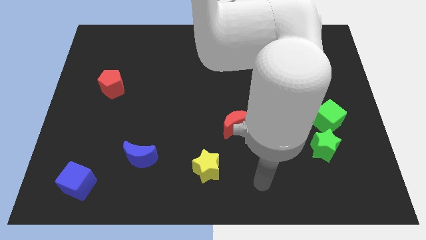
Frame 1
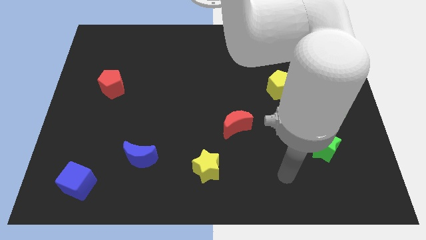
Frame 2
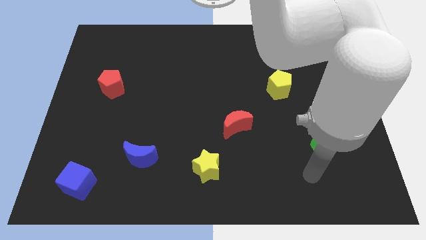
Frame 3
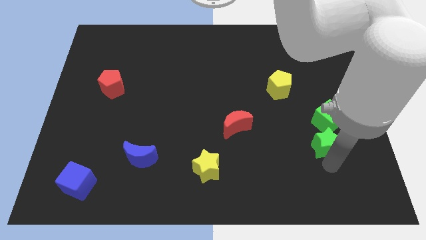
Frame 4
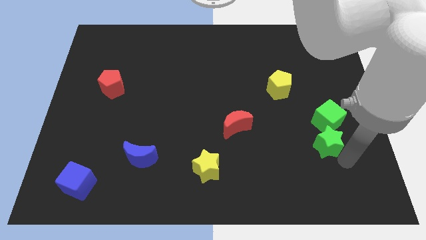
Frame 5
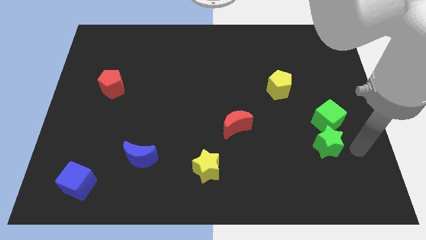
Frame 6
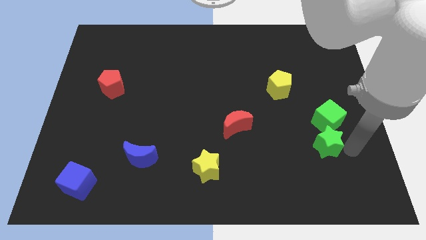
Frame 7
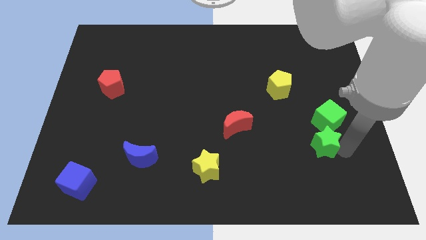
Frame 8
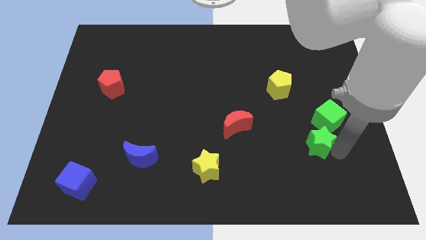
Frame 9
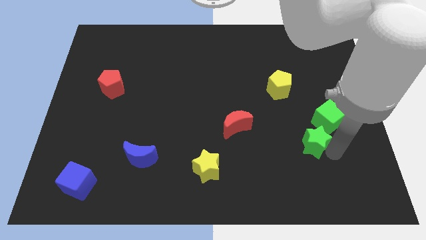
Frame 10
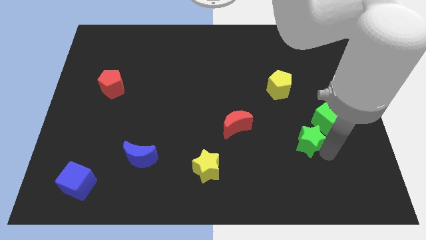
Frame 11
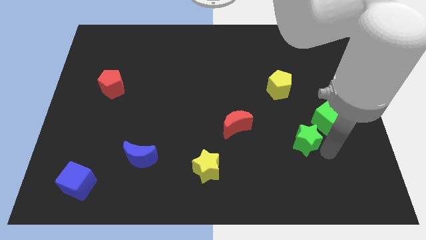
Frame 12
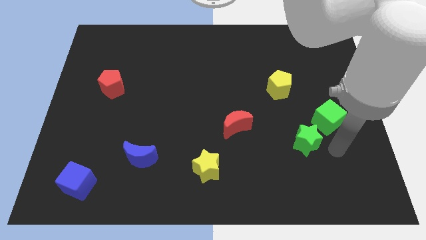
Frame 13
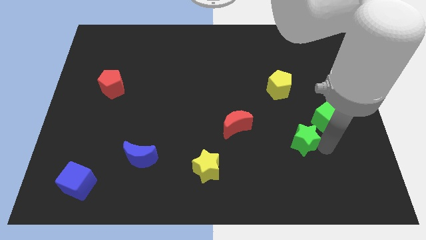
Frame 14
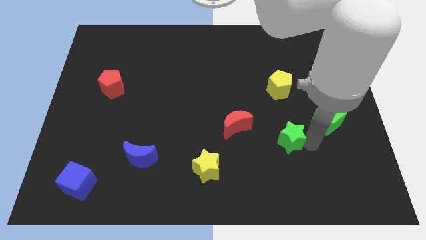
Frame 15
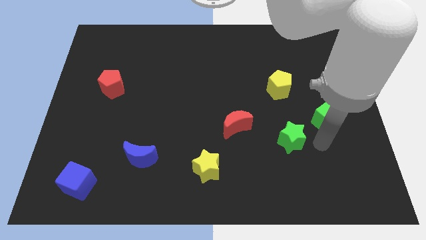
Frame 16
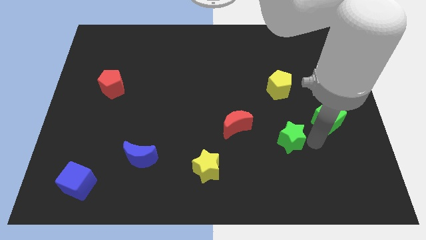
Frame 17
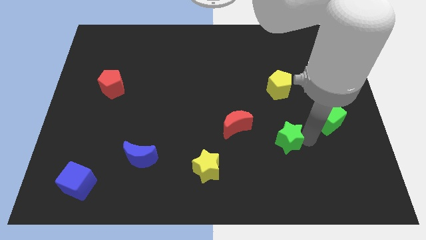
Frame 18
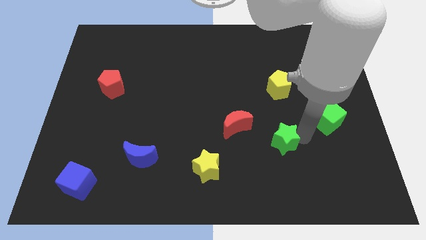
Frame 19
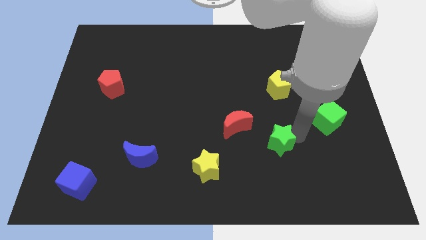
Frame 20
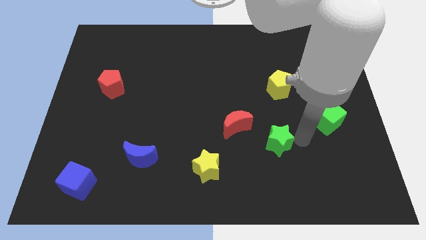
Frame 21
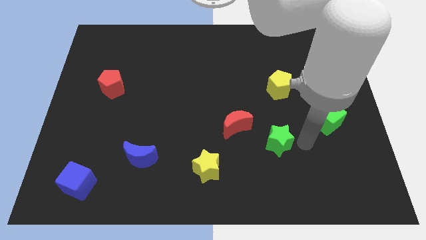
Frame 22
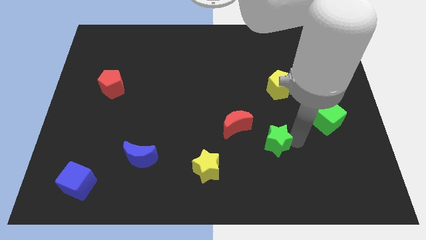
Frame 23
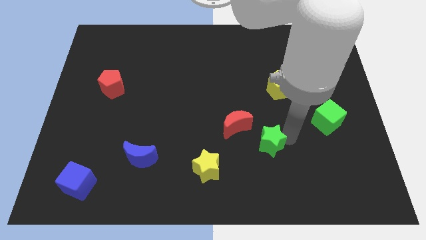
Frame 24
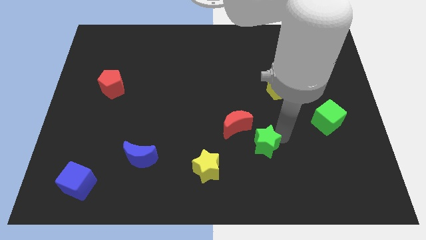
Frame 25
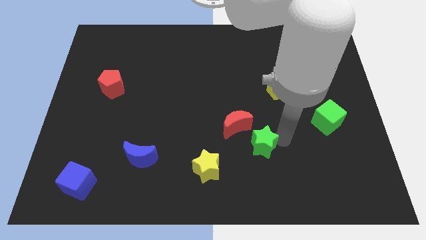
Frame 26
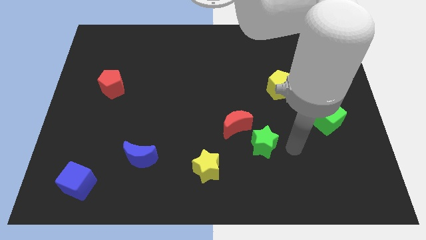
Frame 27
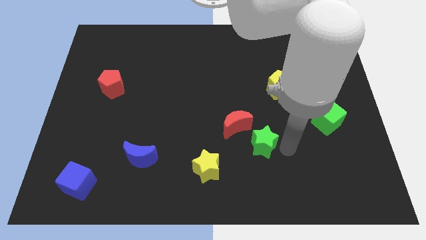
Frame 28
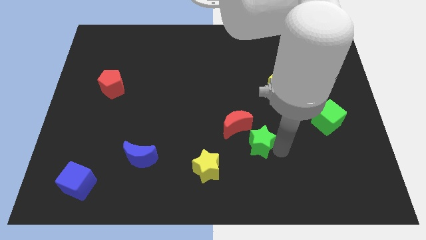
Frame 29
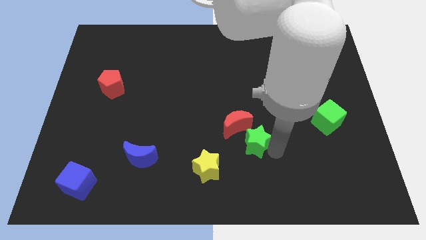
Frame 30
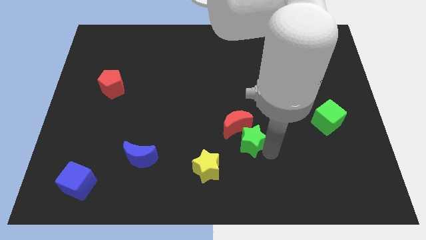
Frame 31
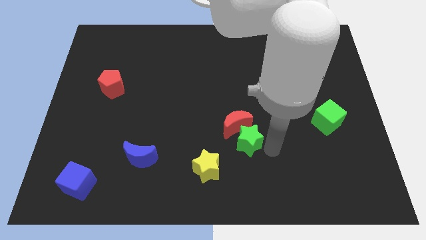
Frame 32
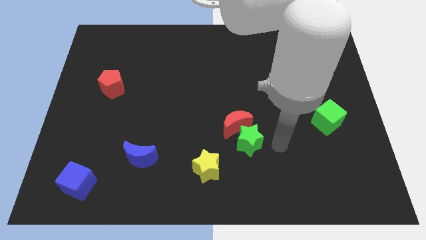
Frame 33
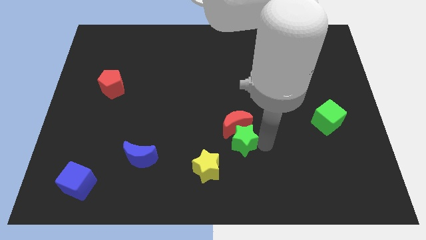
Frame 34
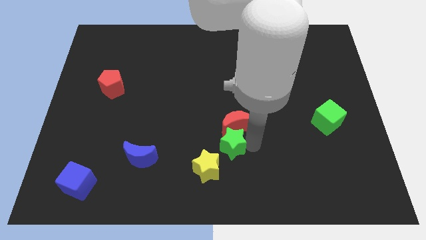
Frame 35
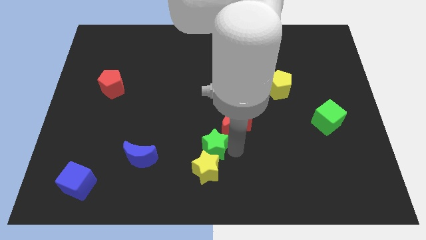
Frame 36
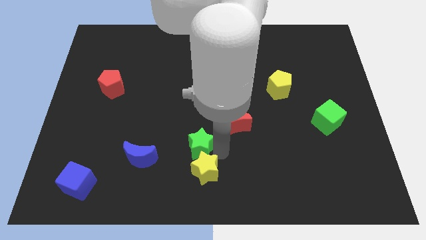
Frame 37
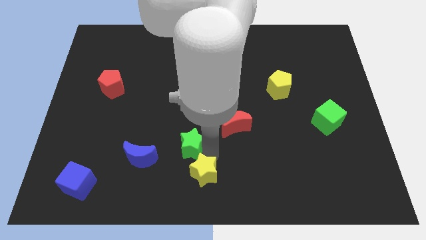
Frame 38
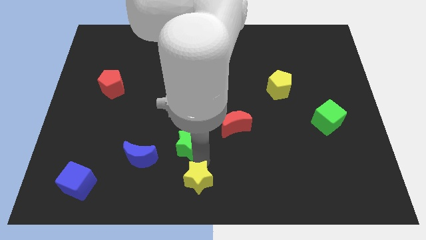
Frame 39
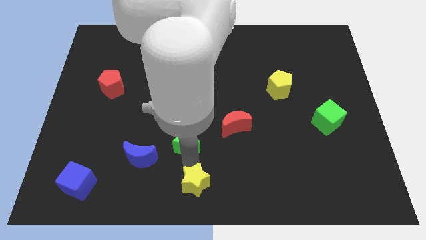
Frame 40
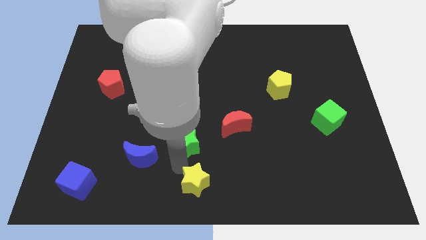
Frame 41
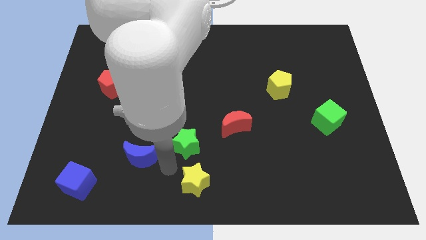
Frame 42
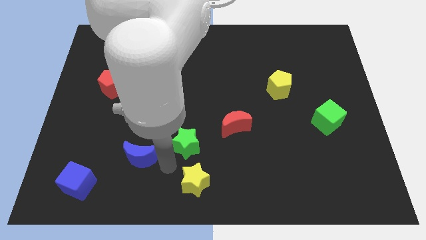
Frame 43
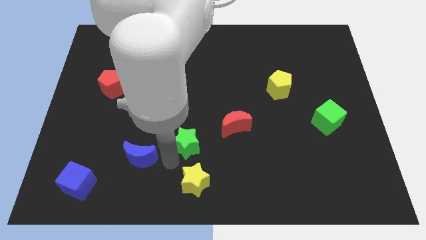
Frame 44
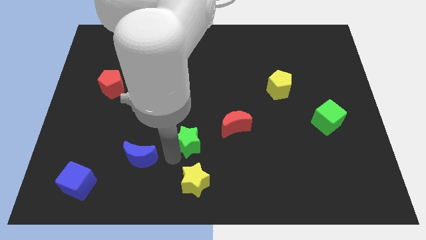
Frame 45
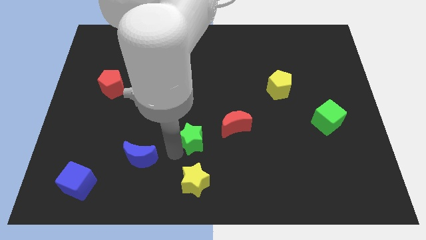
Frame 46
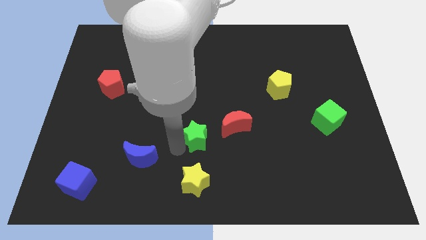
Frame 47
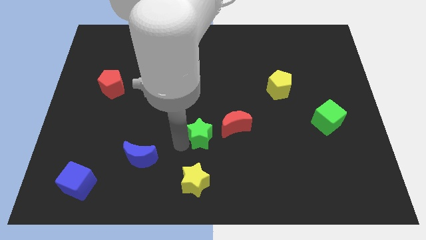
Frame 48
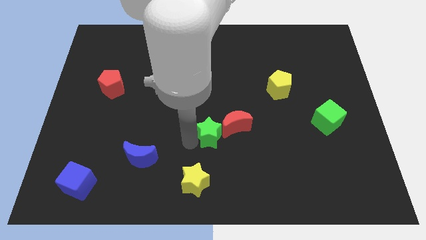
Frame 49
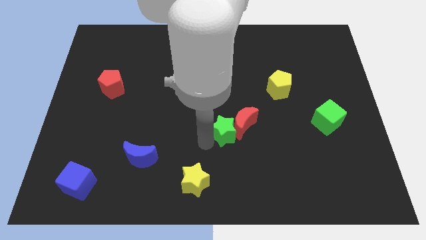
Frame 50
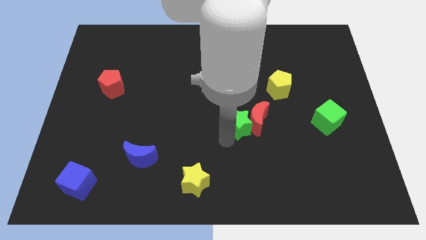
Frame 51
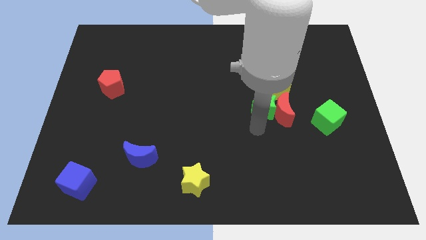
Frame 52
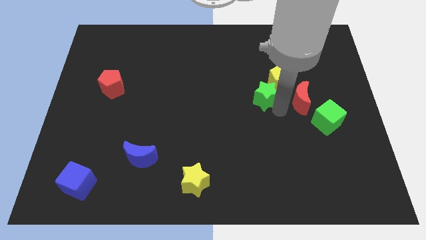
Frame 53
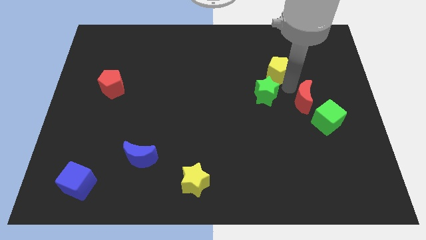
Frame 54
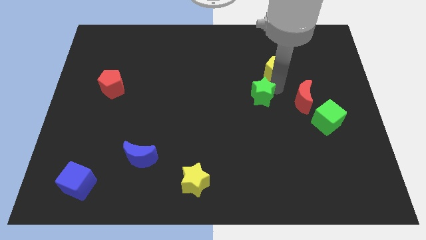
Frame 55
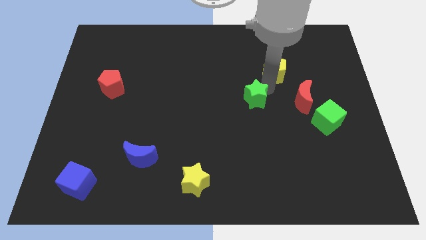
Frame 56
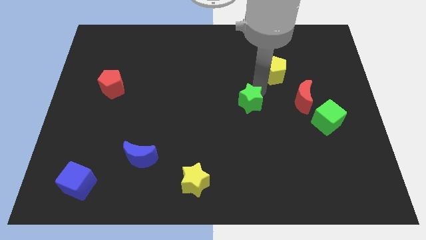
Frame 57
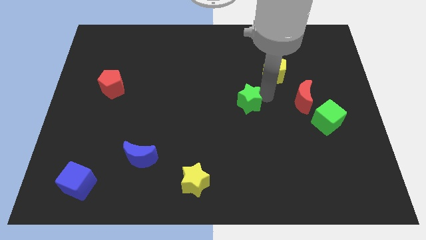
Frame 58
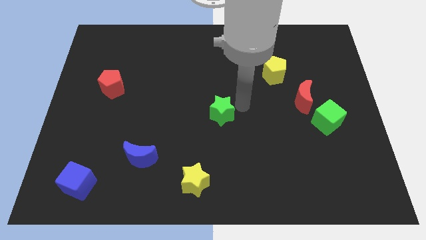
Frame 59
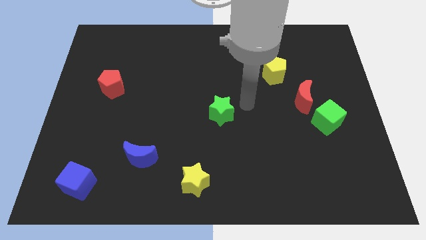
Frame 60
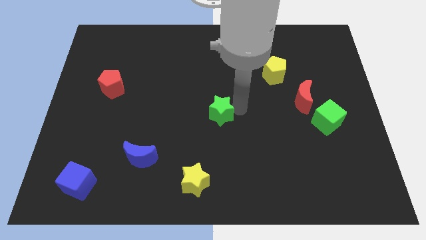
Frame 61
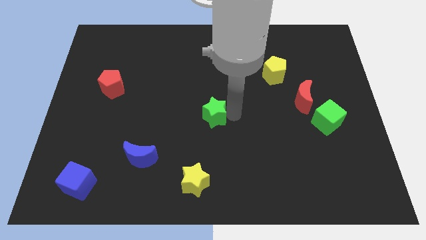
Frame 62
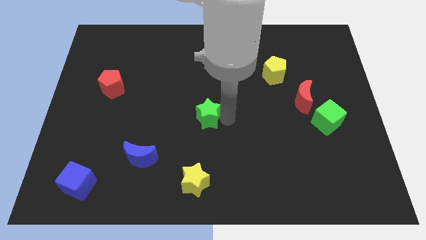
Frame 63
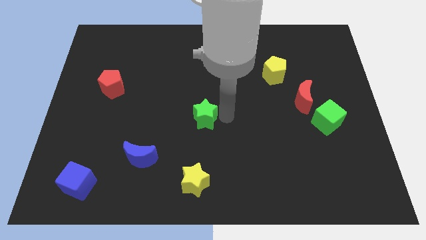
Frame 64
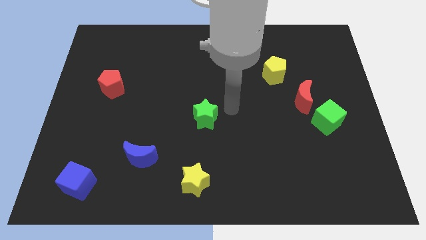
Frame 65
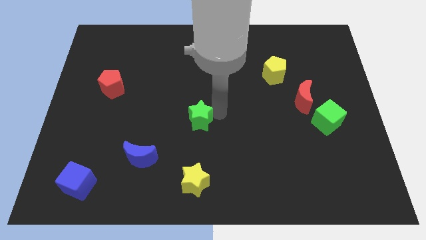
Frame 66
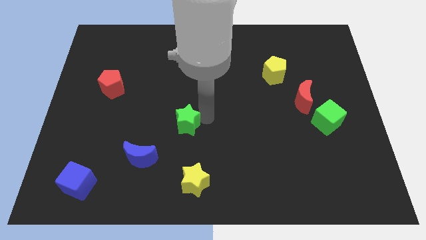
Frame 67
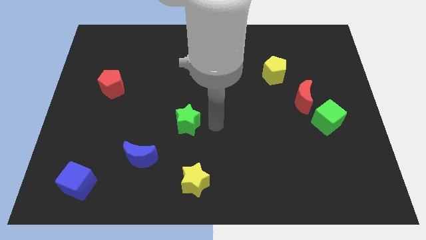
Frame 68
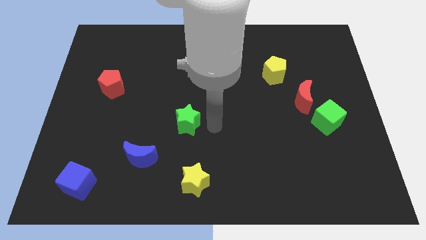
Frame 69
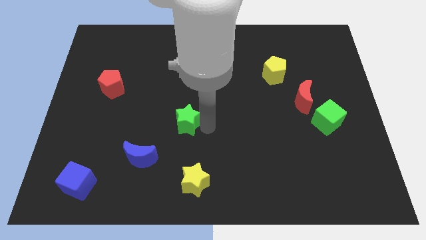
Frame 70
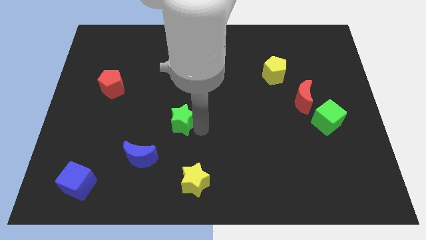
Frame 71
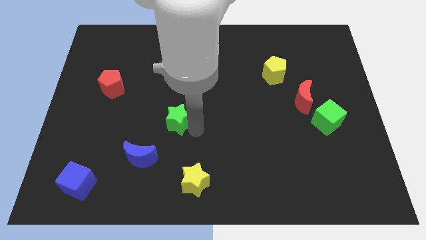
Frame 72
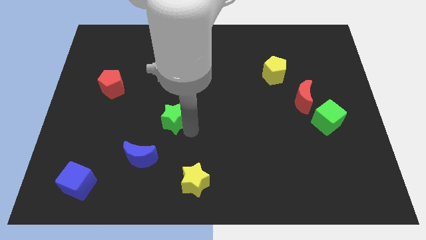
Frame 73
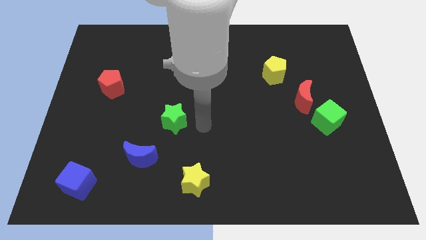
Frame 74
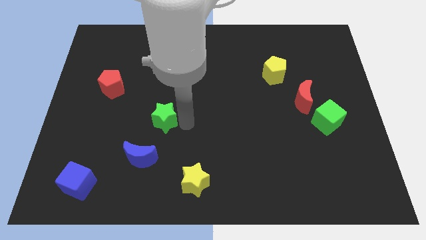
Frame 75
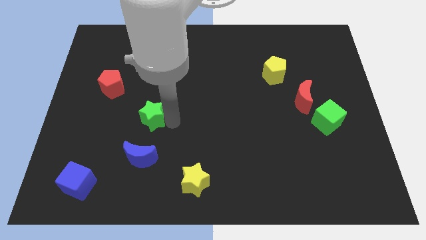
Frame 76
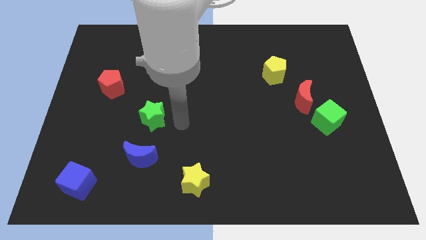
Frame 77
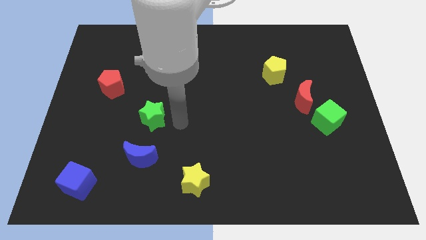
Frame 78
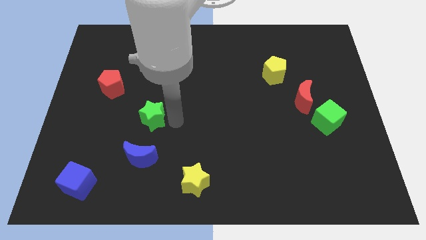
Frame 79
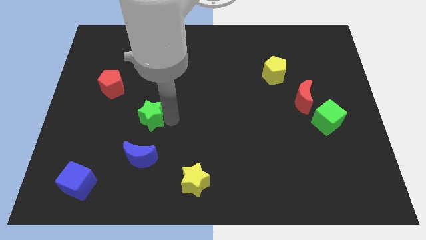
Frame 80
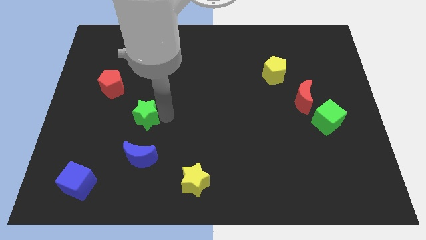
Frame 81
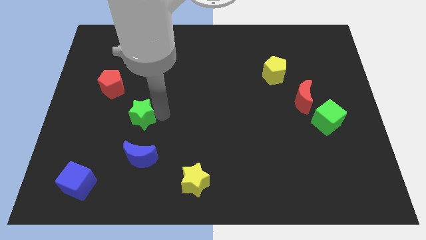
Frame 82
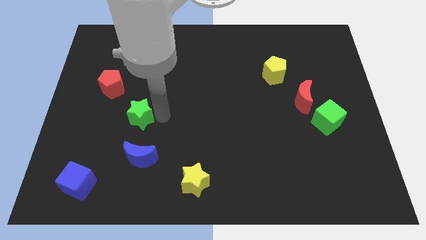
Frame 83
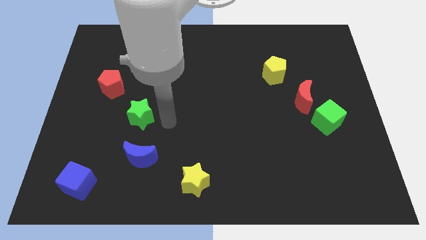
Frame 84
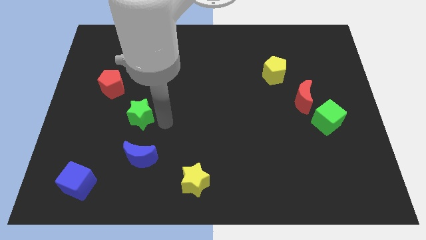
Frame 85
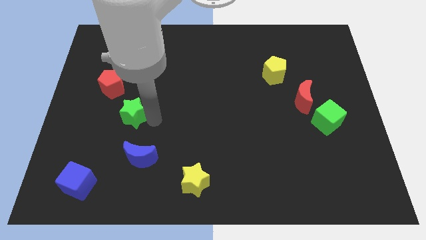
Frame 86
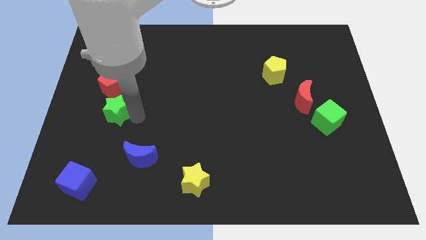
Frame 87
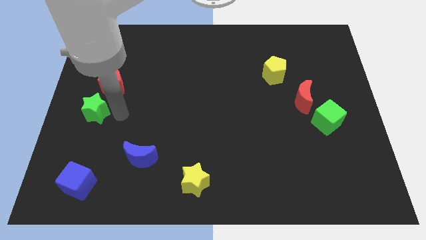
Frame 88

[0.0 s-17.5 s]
slide the green star to the center left
